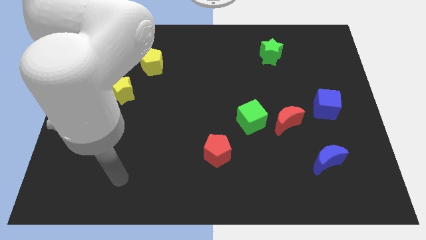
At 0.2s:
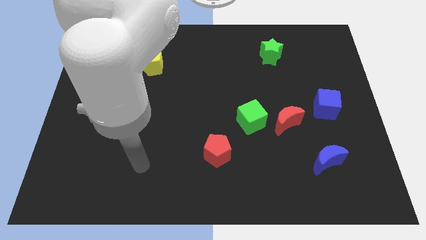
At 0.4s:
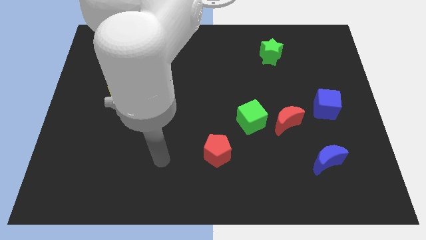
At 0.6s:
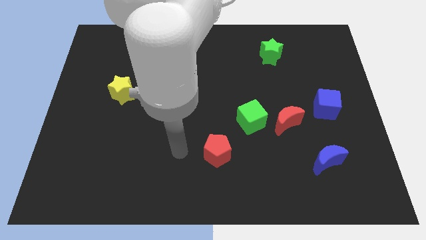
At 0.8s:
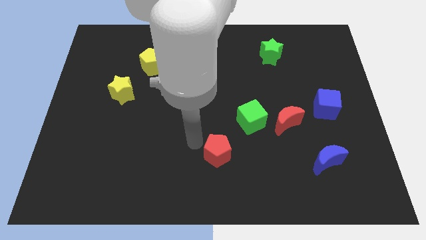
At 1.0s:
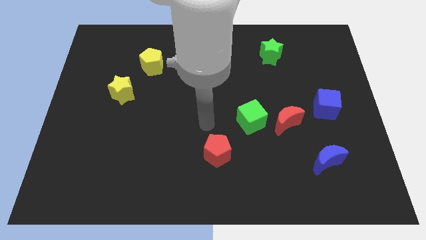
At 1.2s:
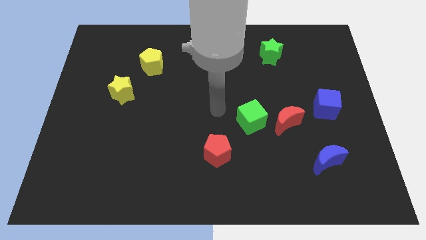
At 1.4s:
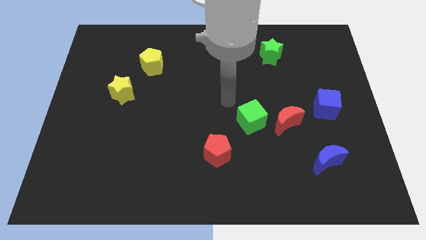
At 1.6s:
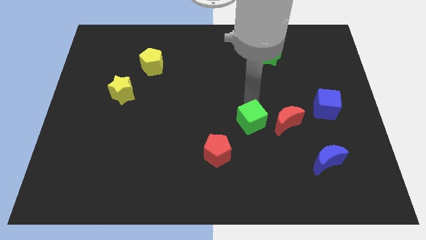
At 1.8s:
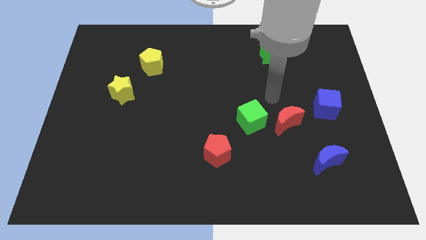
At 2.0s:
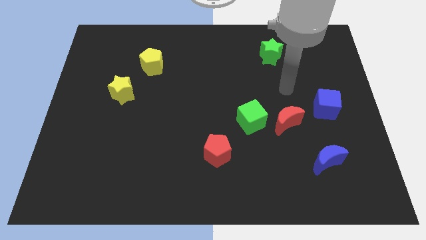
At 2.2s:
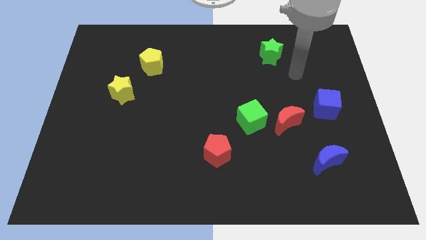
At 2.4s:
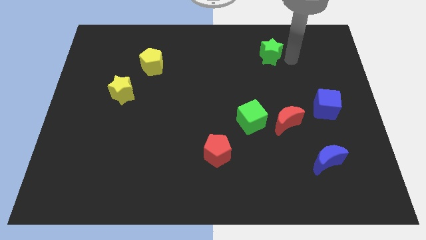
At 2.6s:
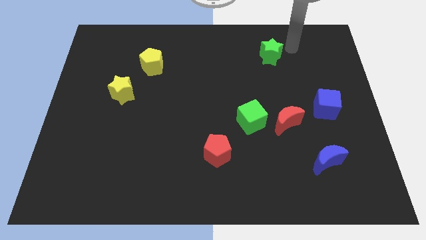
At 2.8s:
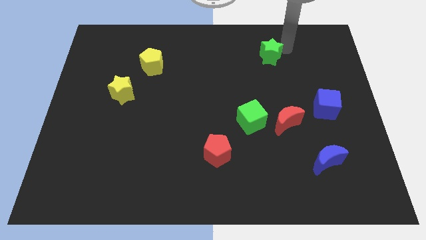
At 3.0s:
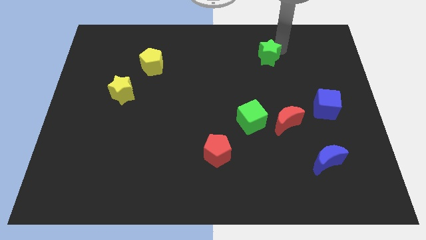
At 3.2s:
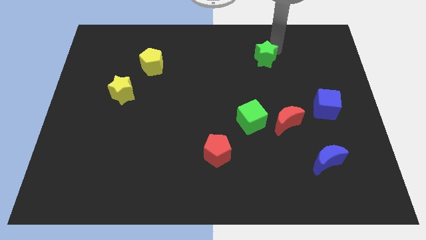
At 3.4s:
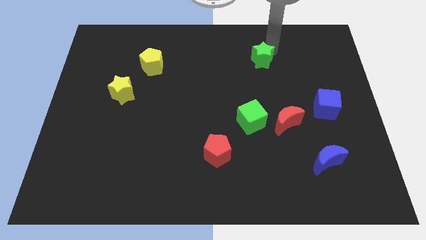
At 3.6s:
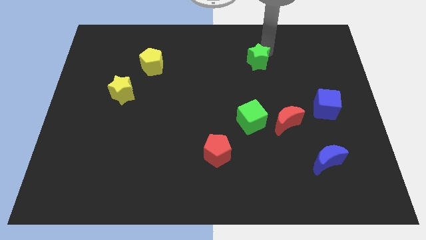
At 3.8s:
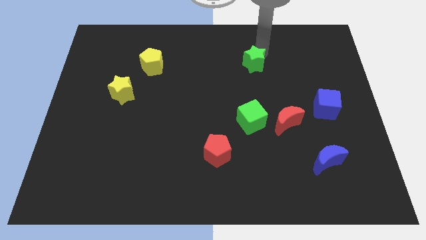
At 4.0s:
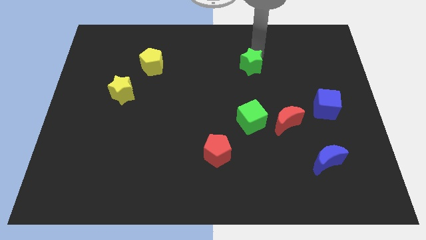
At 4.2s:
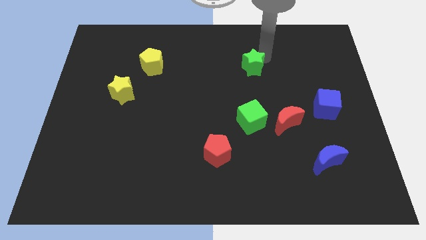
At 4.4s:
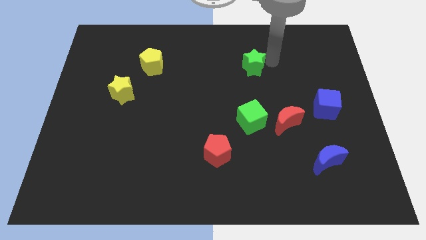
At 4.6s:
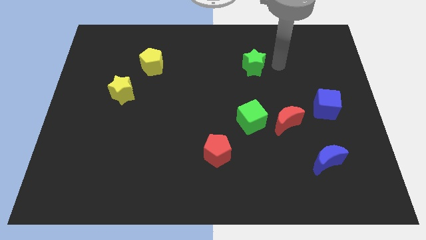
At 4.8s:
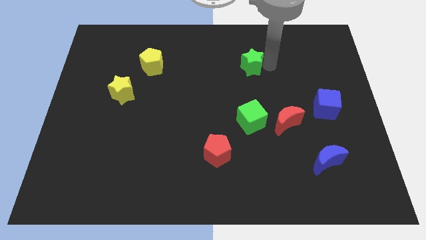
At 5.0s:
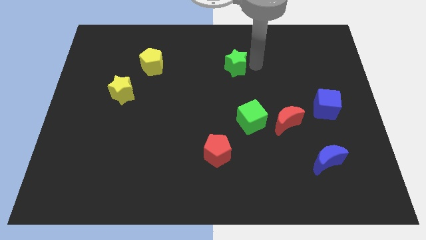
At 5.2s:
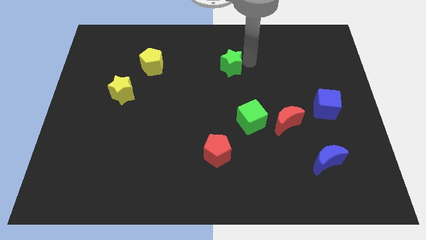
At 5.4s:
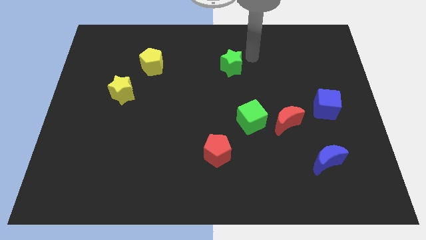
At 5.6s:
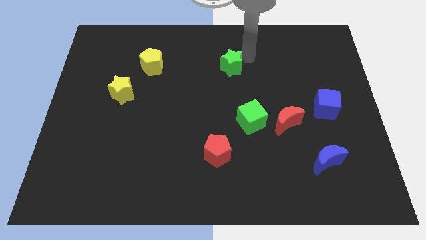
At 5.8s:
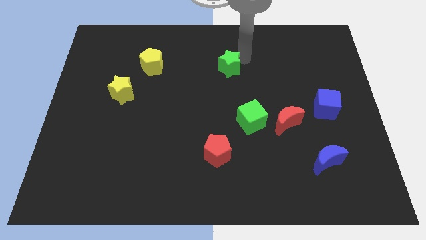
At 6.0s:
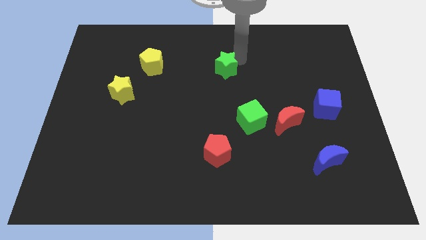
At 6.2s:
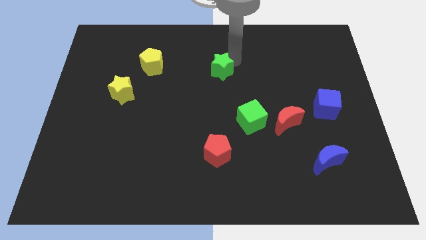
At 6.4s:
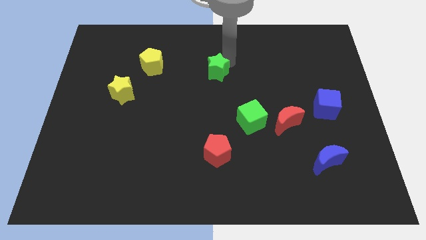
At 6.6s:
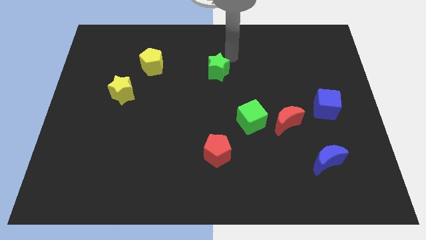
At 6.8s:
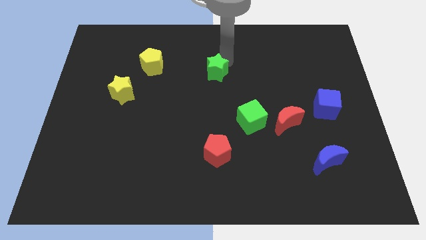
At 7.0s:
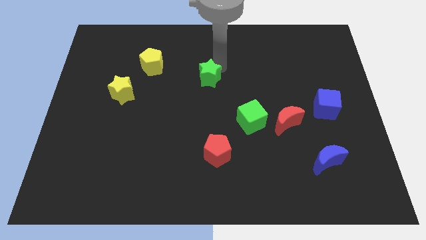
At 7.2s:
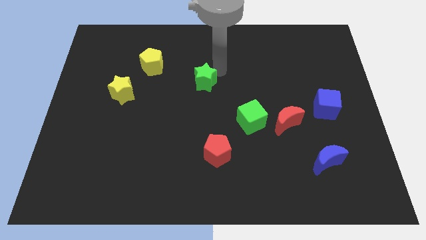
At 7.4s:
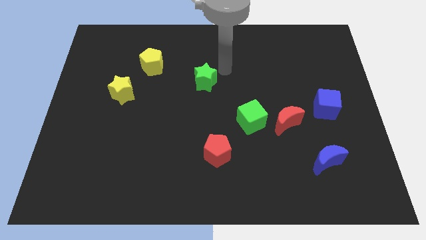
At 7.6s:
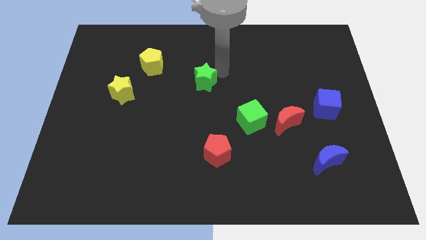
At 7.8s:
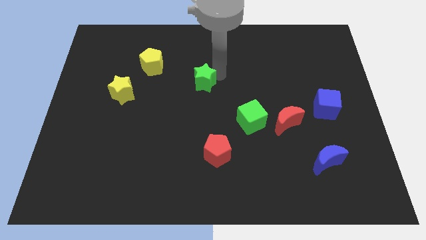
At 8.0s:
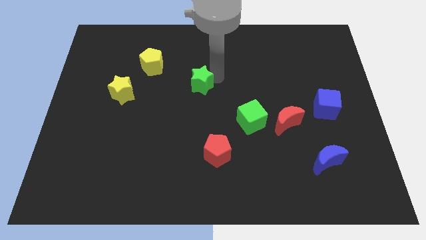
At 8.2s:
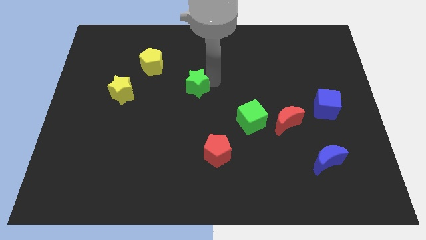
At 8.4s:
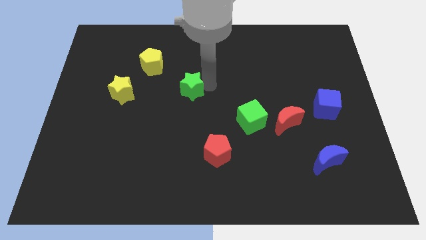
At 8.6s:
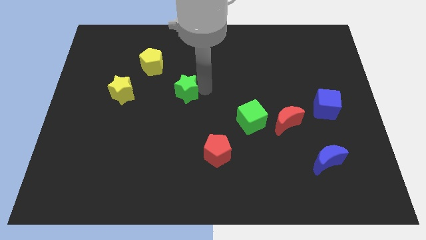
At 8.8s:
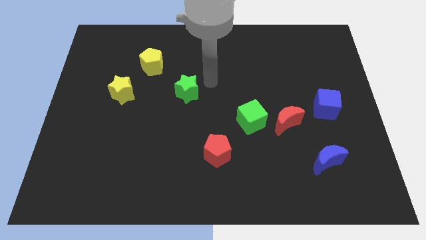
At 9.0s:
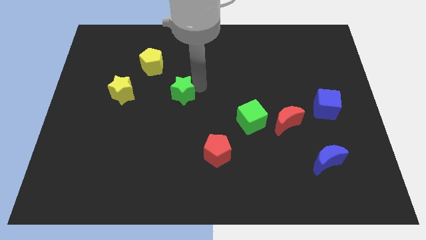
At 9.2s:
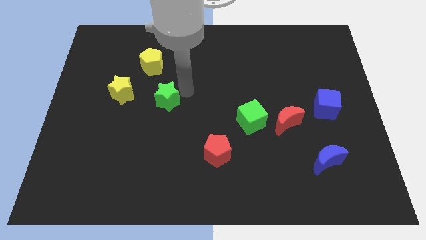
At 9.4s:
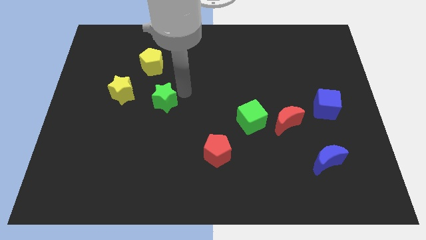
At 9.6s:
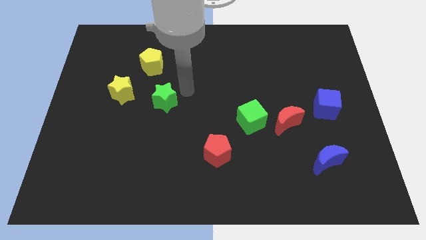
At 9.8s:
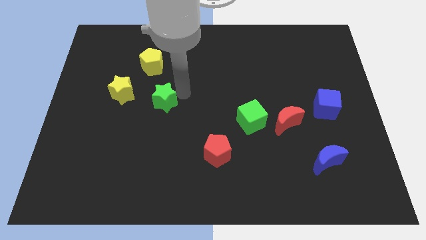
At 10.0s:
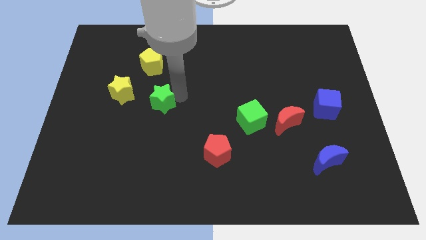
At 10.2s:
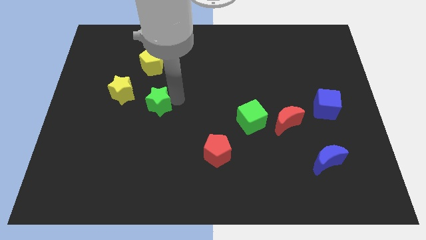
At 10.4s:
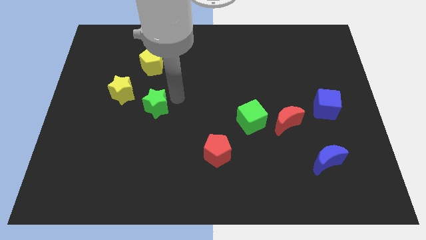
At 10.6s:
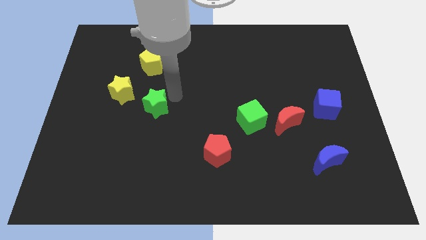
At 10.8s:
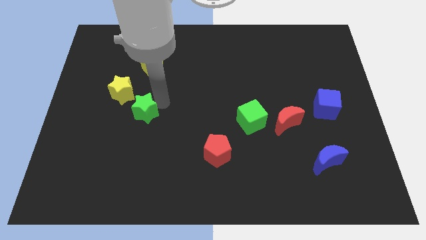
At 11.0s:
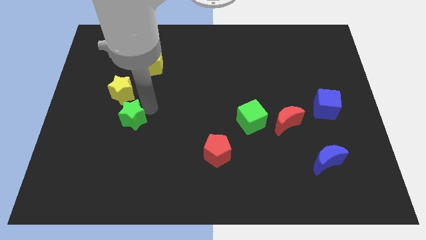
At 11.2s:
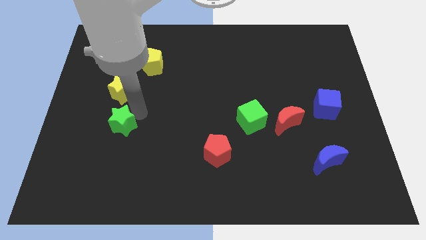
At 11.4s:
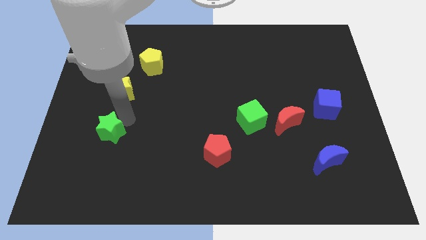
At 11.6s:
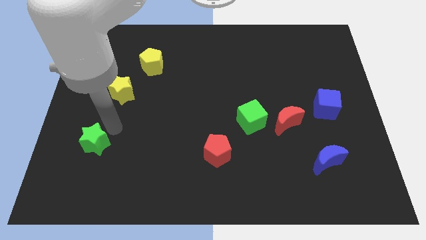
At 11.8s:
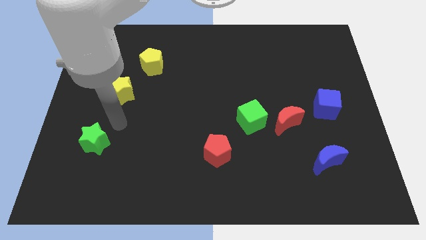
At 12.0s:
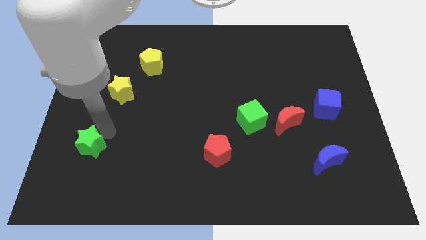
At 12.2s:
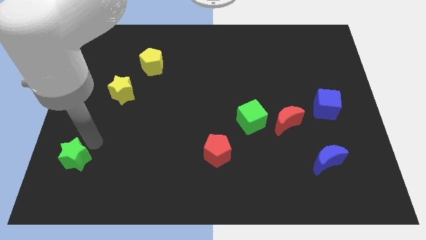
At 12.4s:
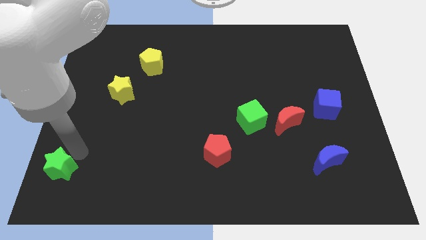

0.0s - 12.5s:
put the green star to the bottom left
